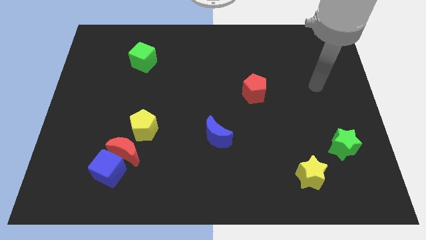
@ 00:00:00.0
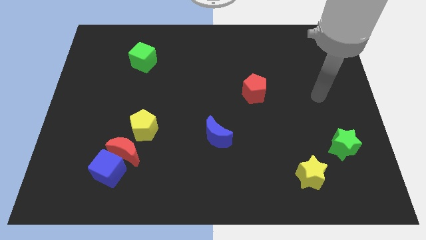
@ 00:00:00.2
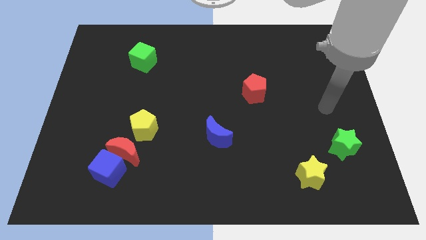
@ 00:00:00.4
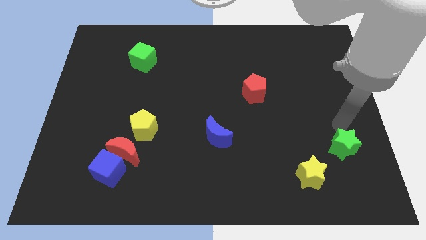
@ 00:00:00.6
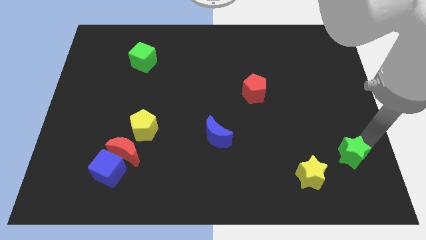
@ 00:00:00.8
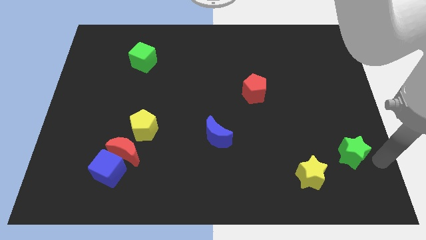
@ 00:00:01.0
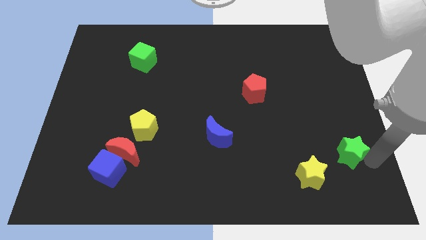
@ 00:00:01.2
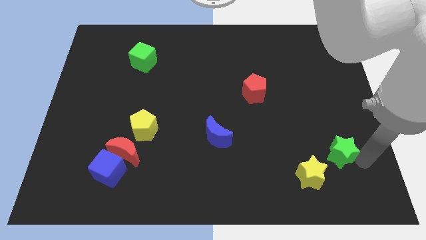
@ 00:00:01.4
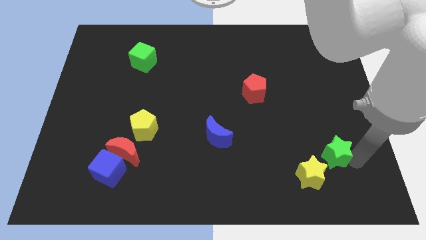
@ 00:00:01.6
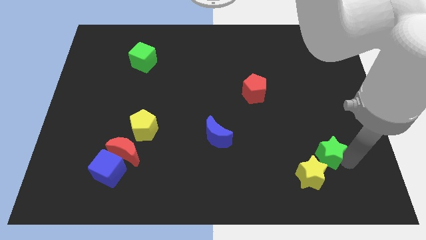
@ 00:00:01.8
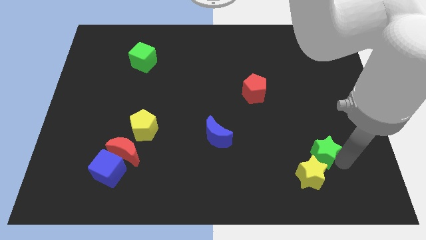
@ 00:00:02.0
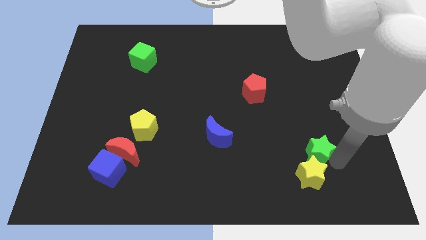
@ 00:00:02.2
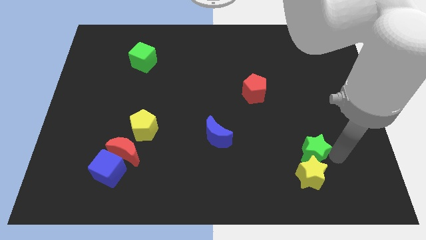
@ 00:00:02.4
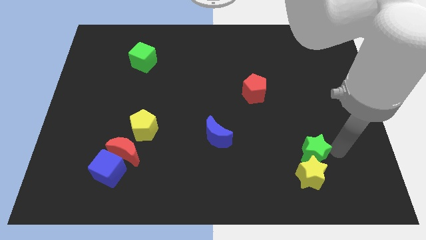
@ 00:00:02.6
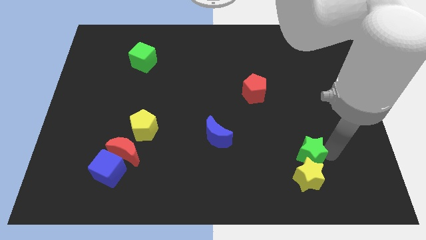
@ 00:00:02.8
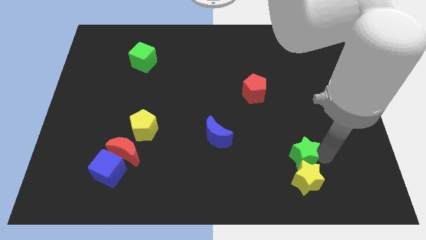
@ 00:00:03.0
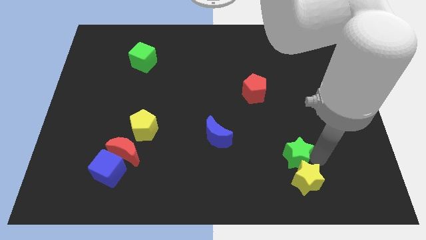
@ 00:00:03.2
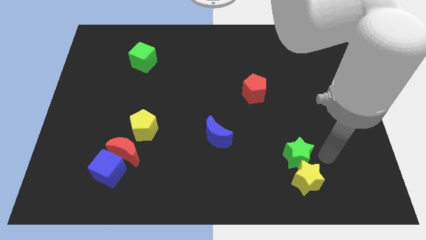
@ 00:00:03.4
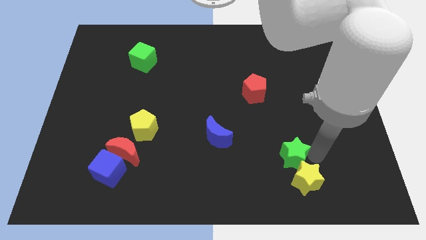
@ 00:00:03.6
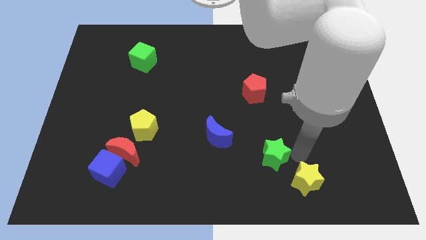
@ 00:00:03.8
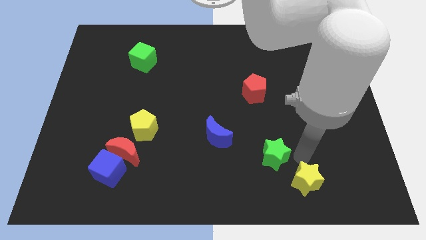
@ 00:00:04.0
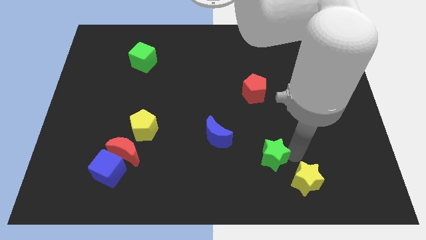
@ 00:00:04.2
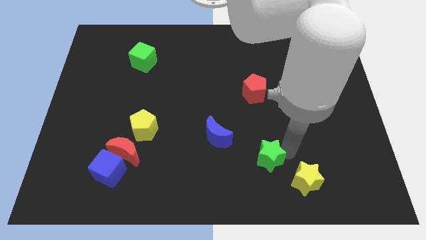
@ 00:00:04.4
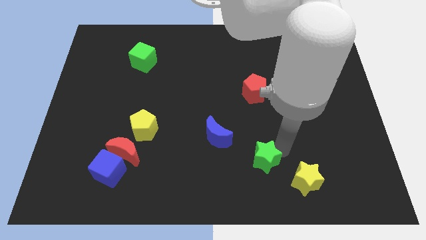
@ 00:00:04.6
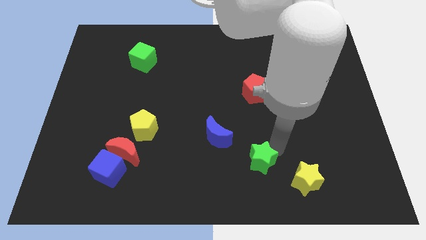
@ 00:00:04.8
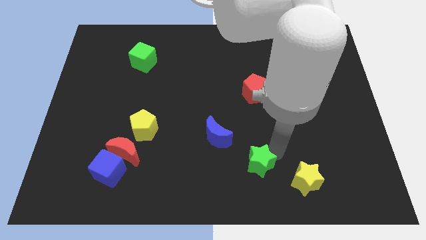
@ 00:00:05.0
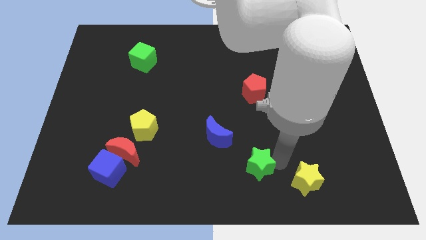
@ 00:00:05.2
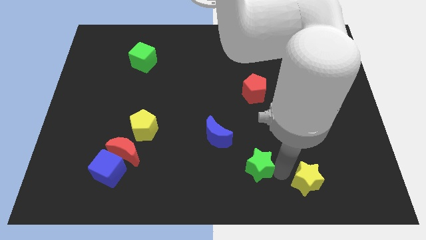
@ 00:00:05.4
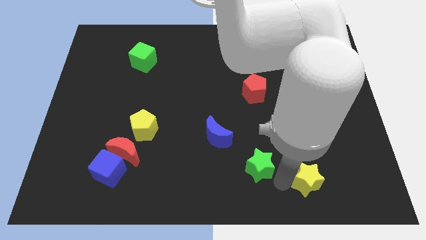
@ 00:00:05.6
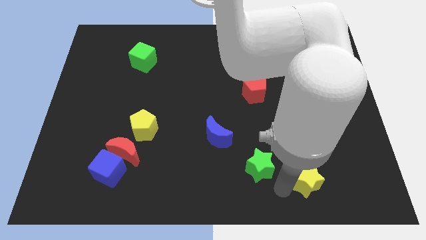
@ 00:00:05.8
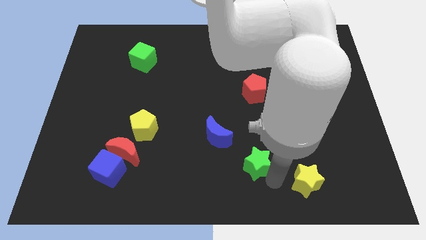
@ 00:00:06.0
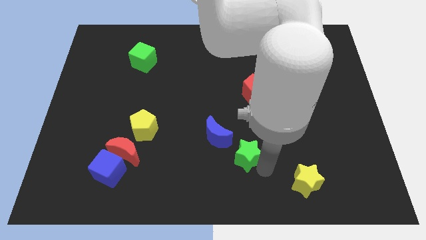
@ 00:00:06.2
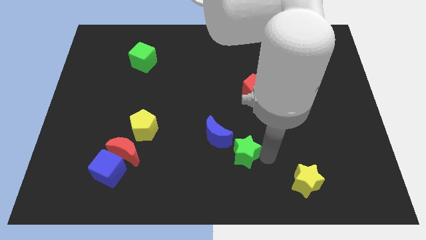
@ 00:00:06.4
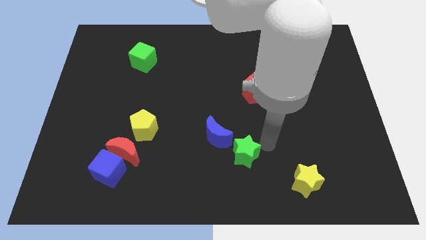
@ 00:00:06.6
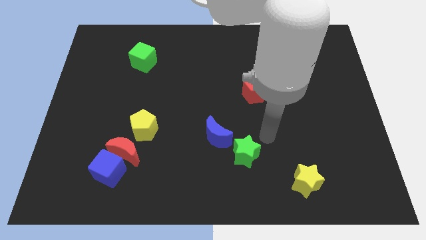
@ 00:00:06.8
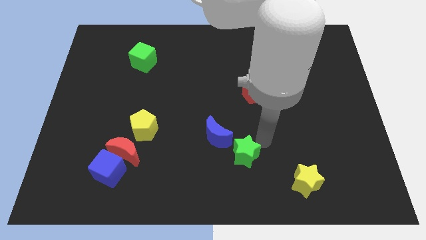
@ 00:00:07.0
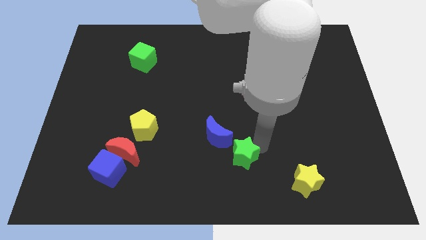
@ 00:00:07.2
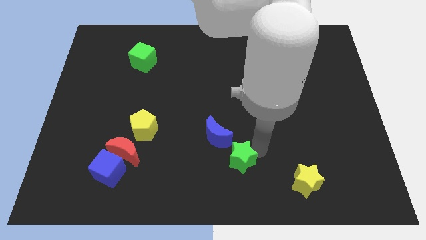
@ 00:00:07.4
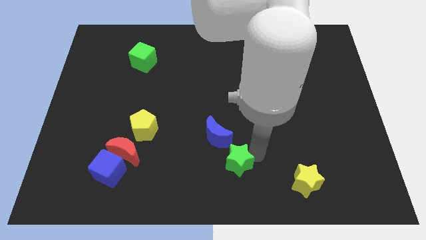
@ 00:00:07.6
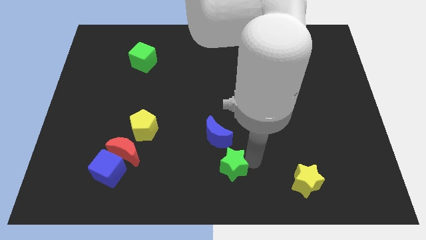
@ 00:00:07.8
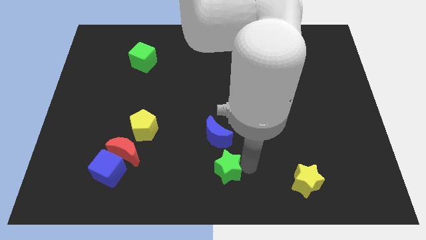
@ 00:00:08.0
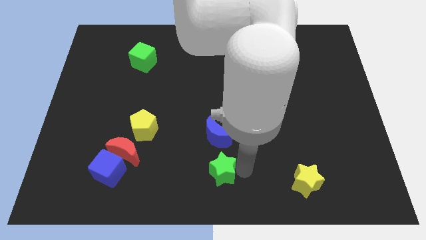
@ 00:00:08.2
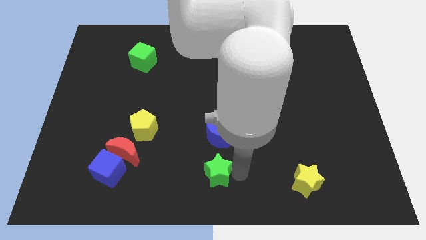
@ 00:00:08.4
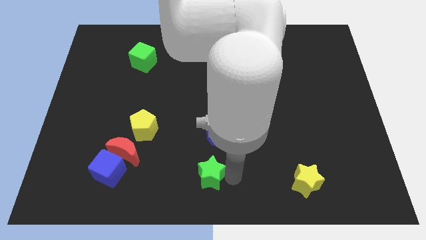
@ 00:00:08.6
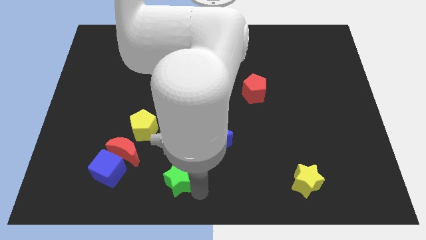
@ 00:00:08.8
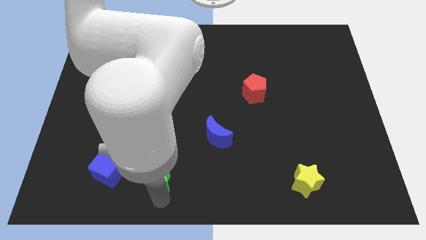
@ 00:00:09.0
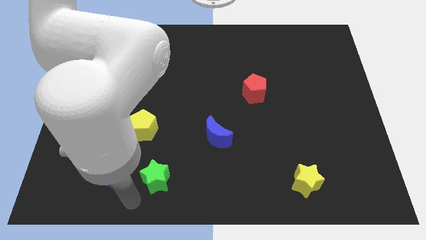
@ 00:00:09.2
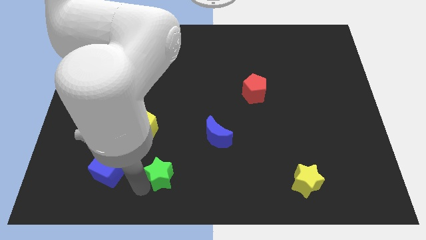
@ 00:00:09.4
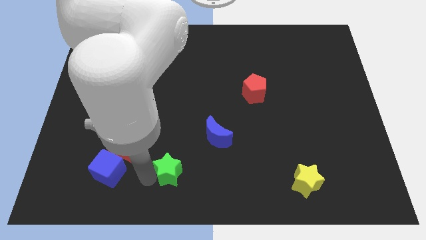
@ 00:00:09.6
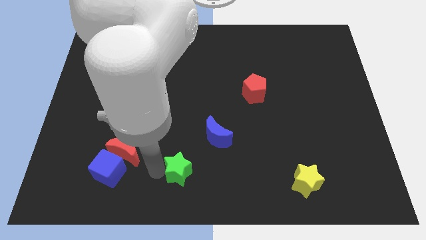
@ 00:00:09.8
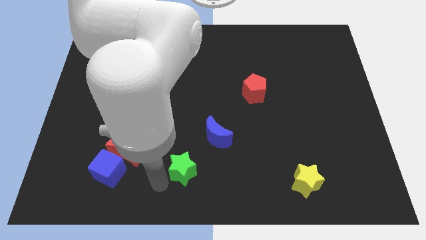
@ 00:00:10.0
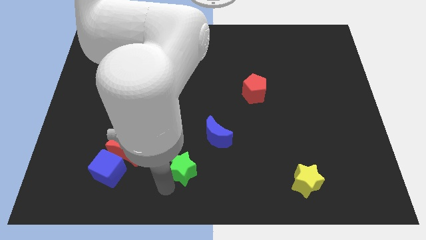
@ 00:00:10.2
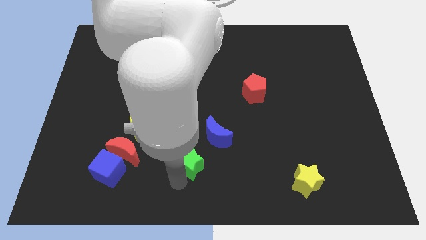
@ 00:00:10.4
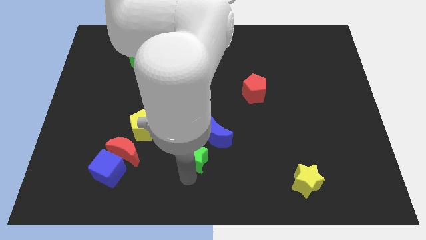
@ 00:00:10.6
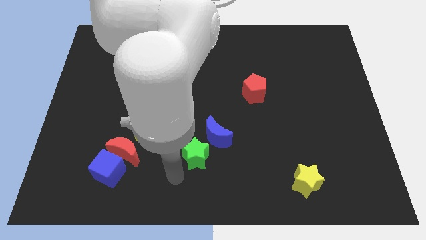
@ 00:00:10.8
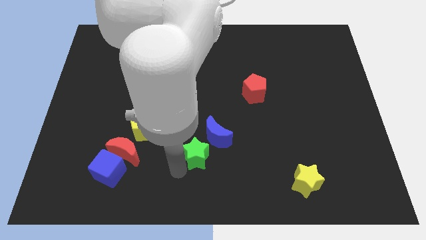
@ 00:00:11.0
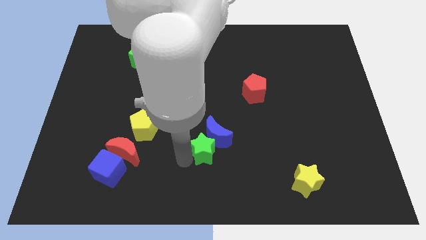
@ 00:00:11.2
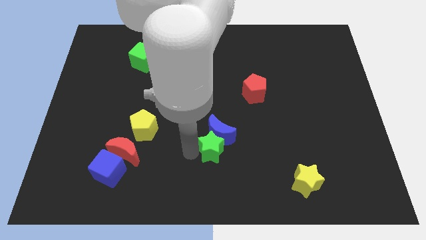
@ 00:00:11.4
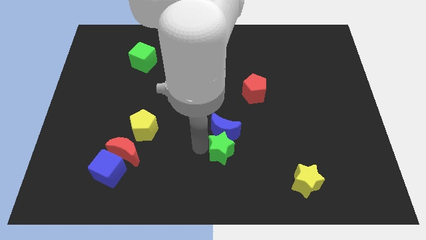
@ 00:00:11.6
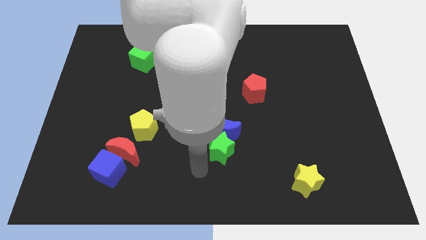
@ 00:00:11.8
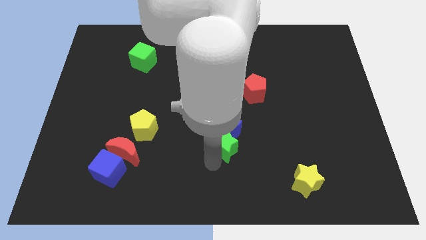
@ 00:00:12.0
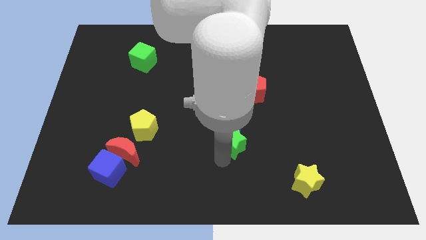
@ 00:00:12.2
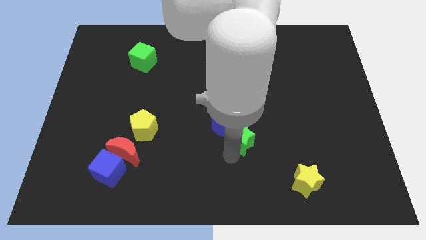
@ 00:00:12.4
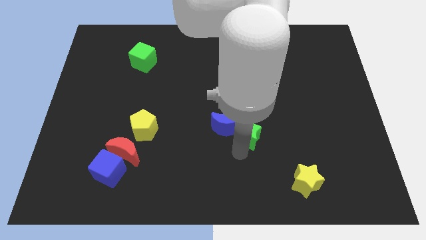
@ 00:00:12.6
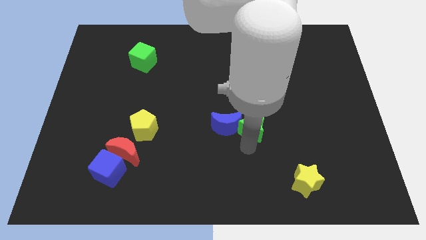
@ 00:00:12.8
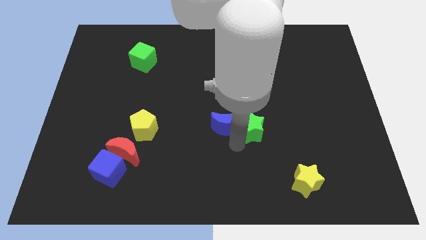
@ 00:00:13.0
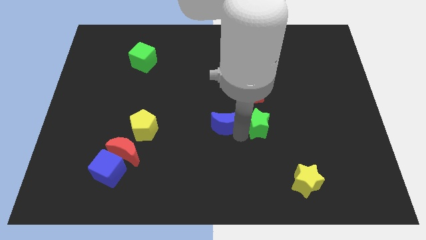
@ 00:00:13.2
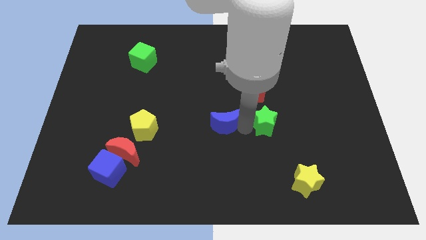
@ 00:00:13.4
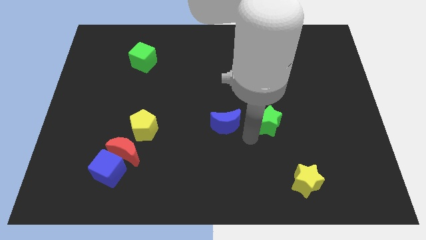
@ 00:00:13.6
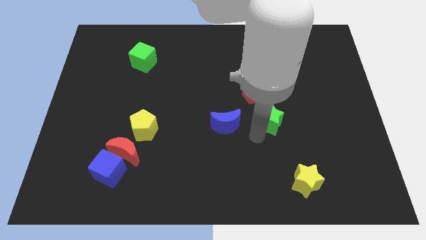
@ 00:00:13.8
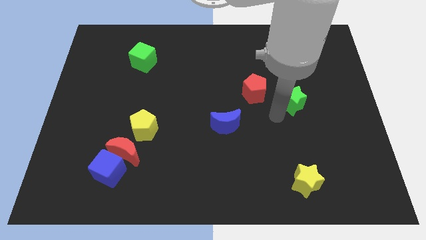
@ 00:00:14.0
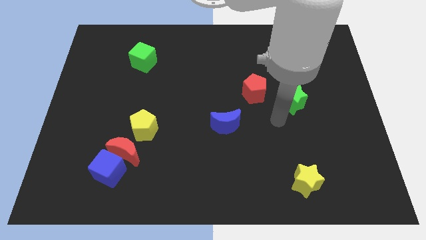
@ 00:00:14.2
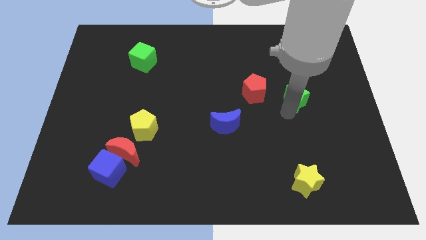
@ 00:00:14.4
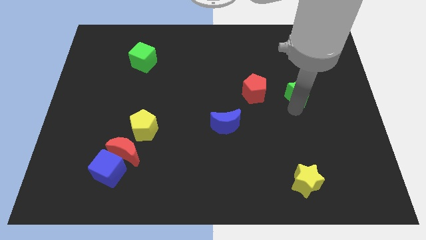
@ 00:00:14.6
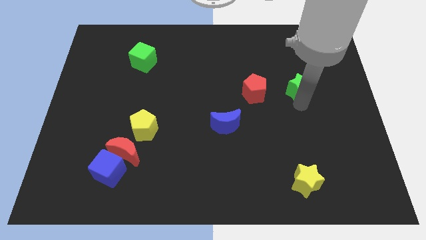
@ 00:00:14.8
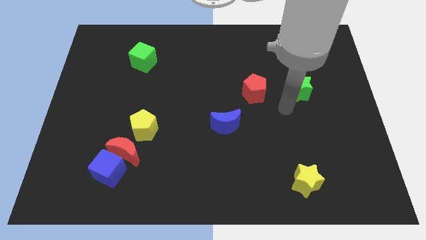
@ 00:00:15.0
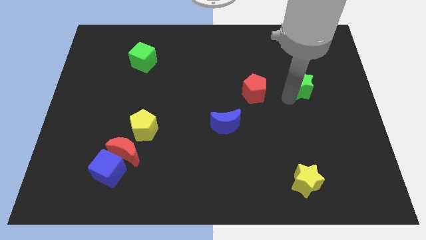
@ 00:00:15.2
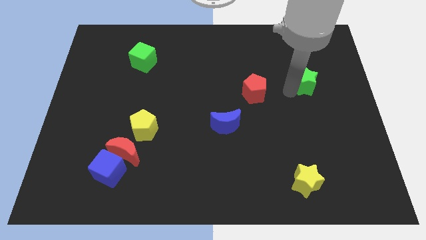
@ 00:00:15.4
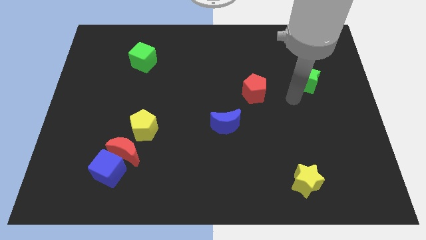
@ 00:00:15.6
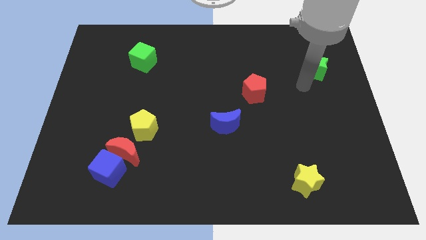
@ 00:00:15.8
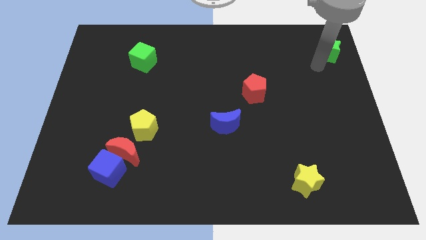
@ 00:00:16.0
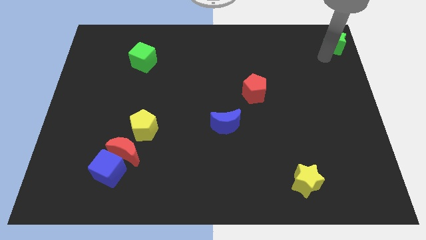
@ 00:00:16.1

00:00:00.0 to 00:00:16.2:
slide the green star to the top right corner
